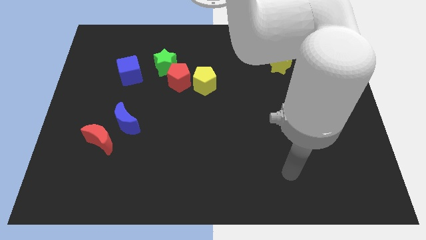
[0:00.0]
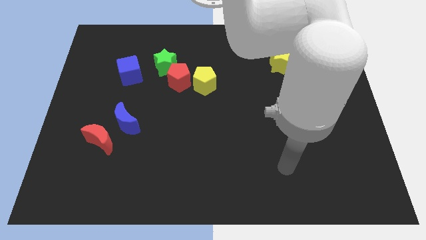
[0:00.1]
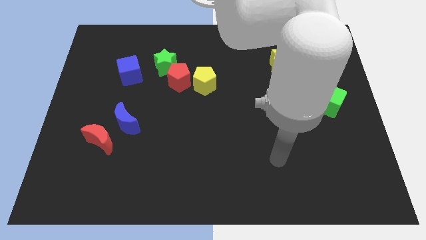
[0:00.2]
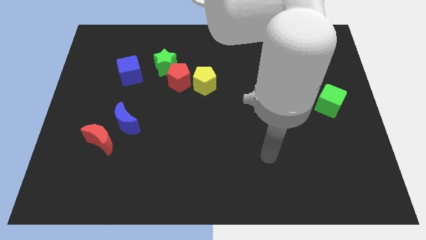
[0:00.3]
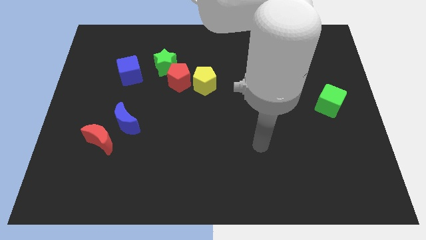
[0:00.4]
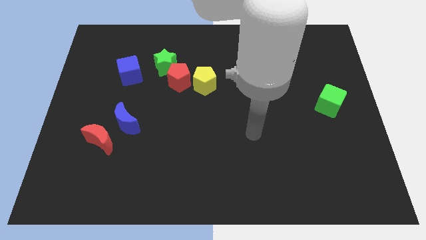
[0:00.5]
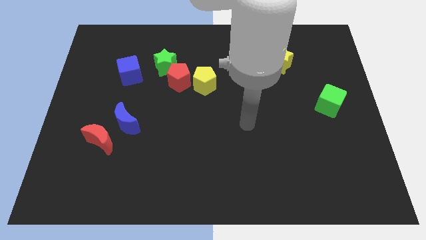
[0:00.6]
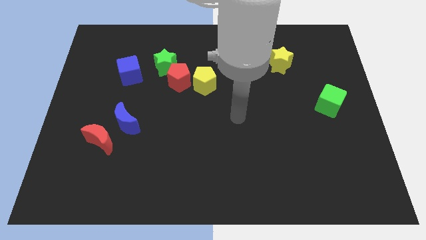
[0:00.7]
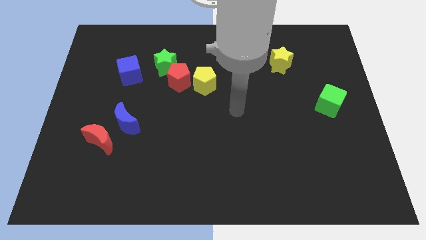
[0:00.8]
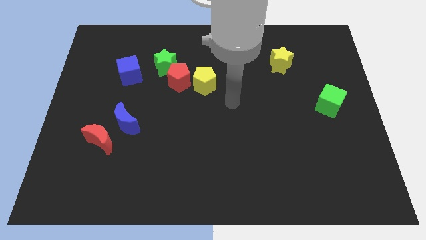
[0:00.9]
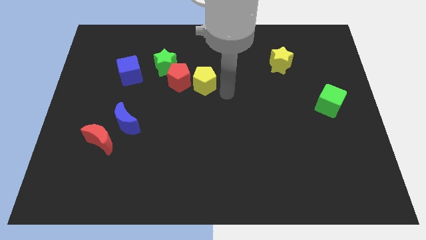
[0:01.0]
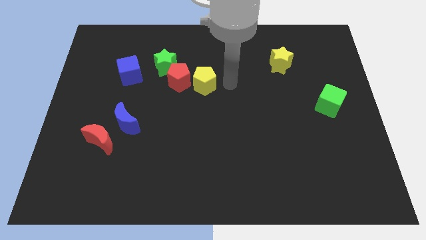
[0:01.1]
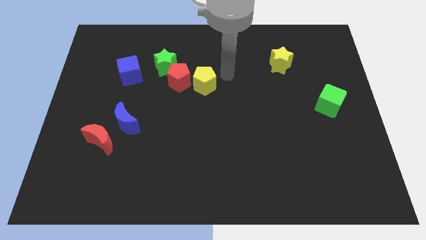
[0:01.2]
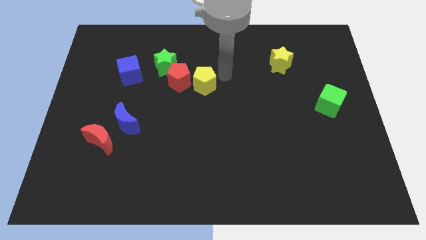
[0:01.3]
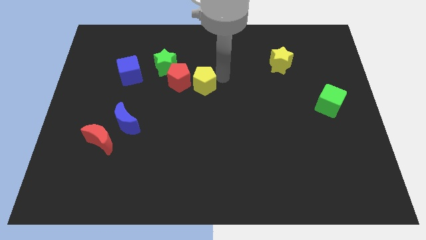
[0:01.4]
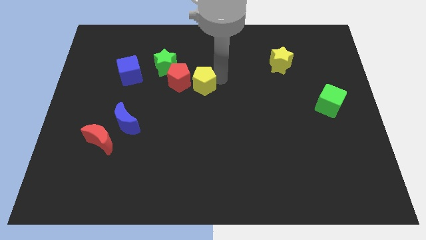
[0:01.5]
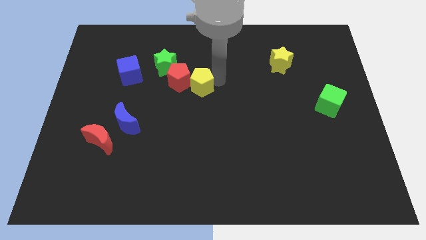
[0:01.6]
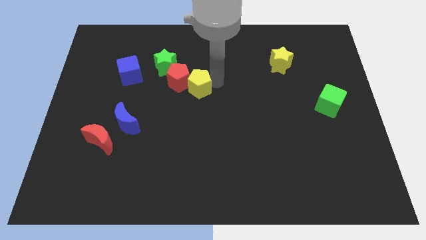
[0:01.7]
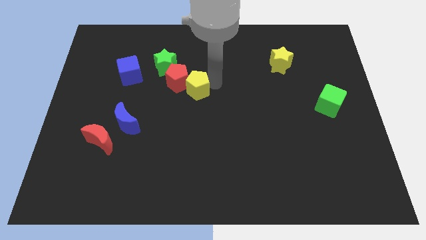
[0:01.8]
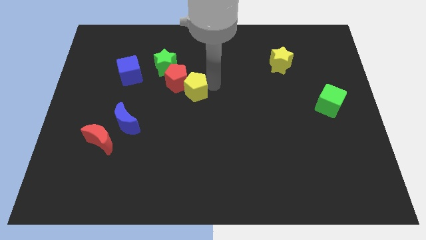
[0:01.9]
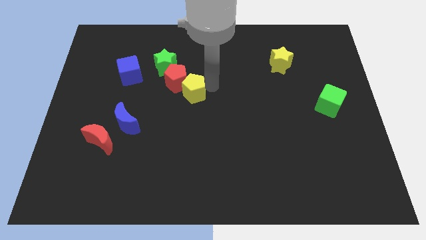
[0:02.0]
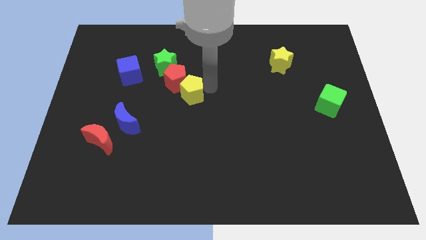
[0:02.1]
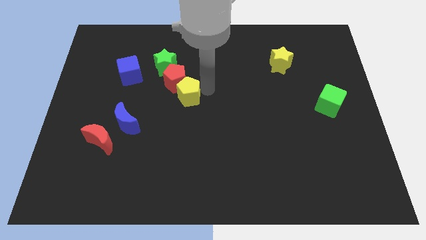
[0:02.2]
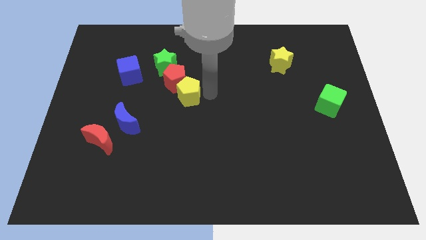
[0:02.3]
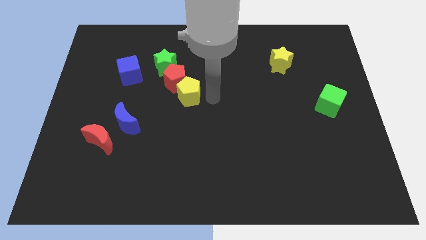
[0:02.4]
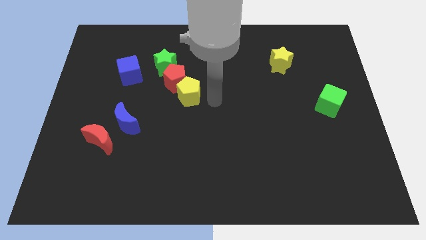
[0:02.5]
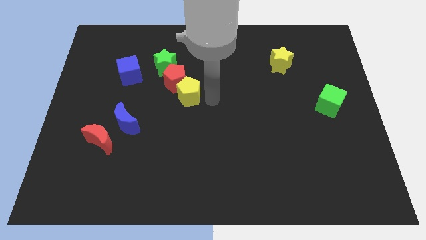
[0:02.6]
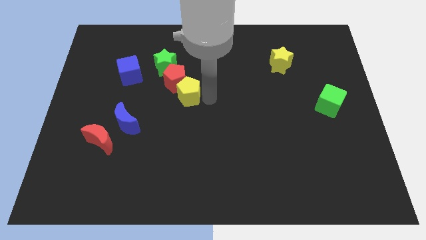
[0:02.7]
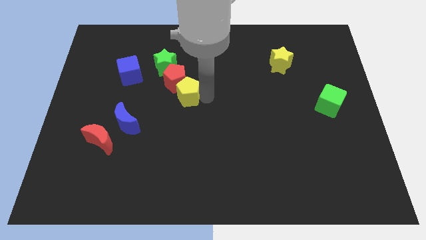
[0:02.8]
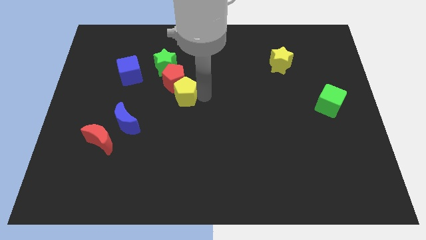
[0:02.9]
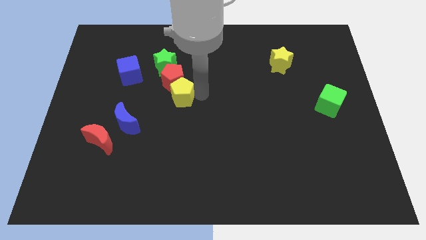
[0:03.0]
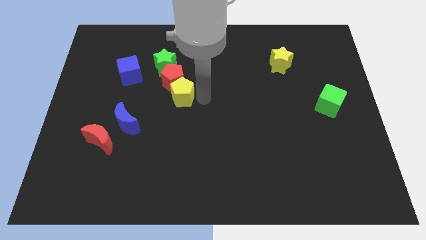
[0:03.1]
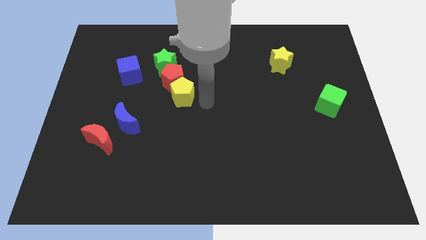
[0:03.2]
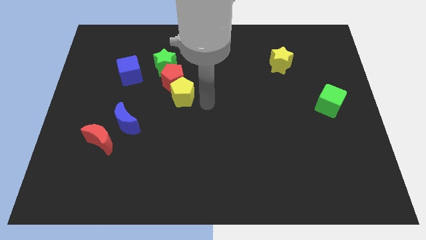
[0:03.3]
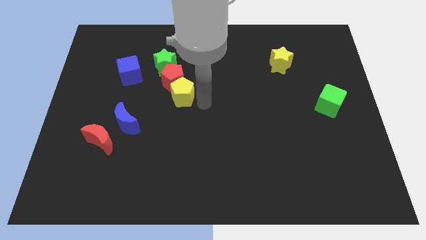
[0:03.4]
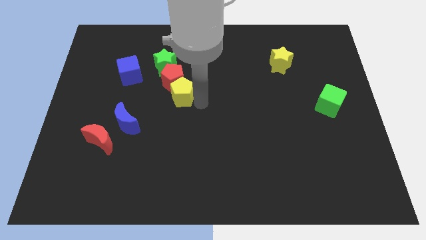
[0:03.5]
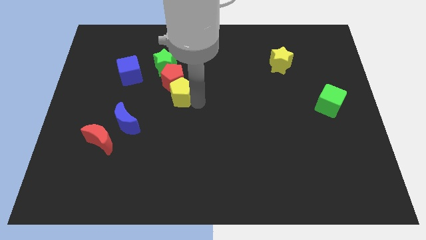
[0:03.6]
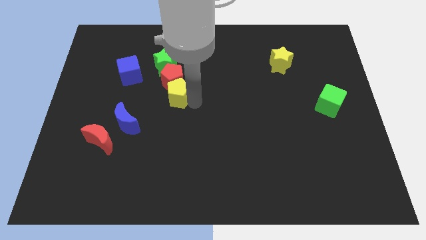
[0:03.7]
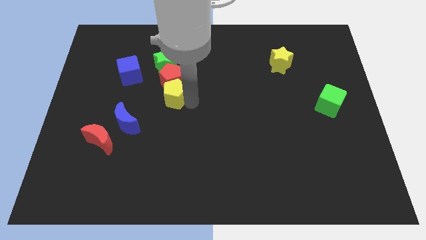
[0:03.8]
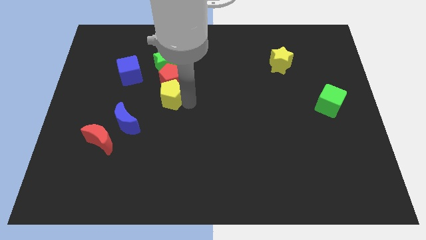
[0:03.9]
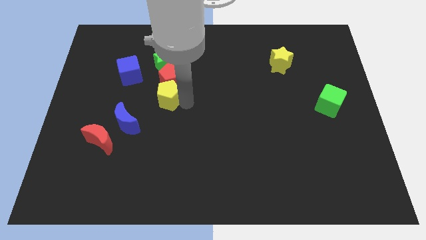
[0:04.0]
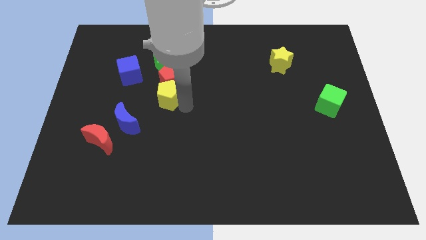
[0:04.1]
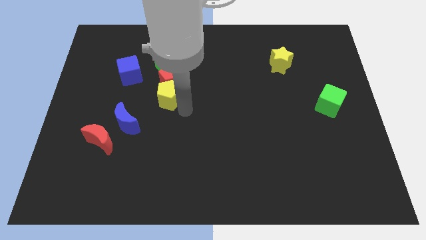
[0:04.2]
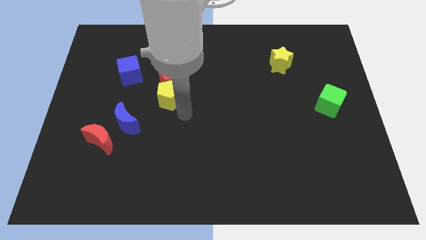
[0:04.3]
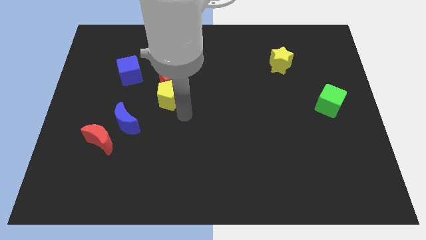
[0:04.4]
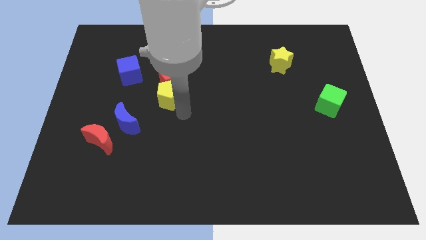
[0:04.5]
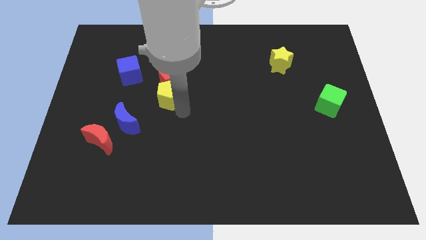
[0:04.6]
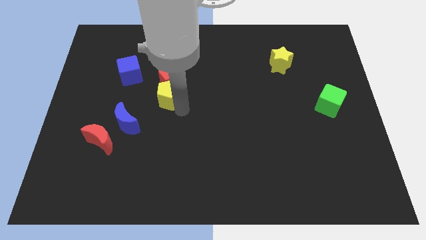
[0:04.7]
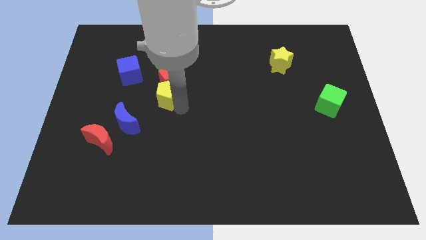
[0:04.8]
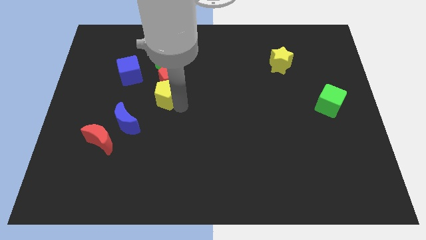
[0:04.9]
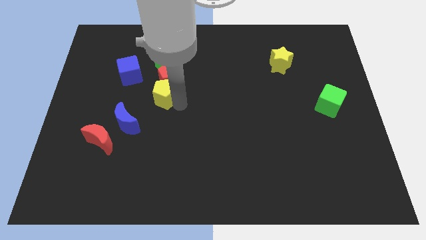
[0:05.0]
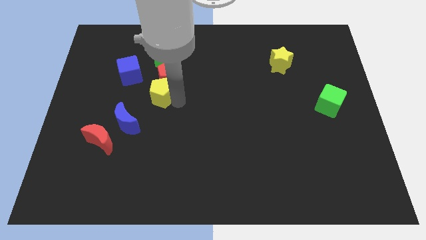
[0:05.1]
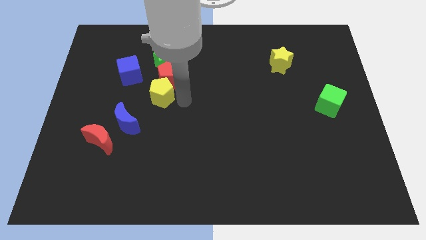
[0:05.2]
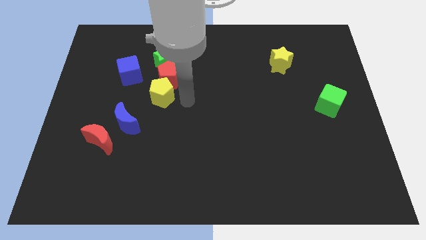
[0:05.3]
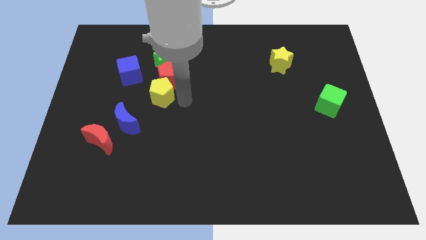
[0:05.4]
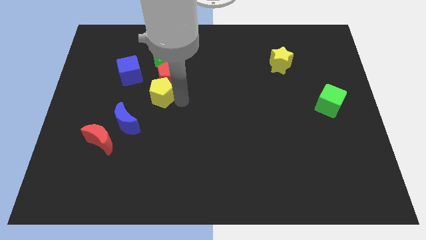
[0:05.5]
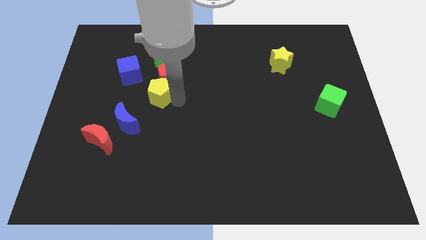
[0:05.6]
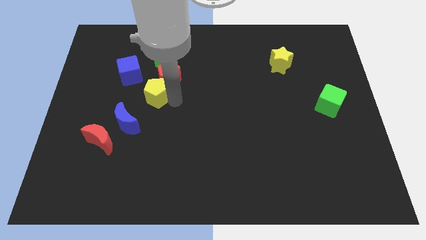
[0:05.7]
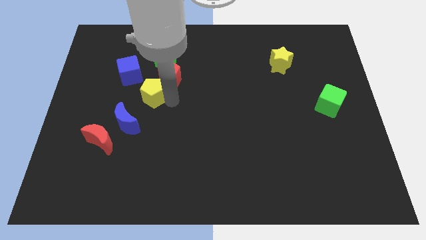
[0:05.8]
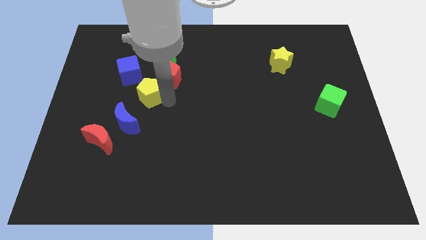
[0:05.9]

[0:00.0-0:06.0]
move the yellow pentagon to the top side of the blue moon
